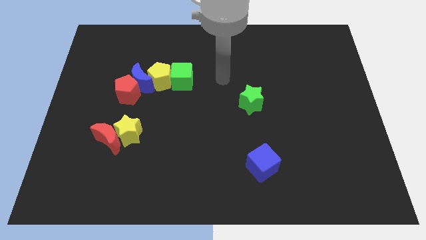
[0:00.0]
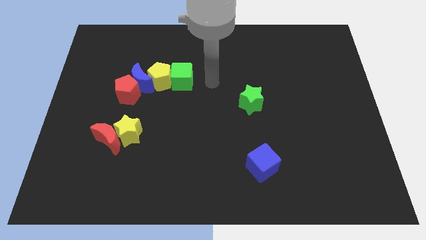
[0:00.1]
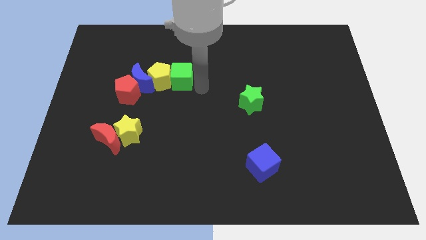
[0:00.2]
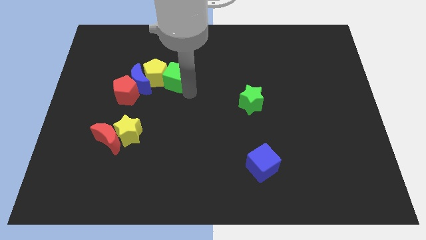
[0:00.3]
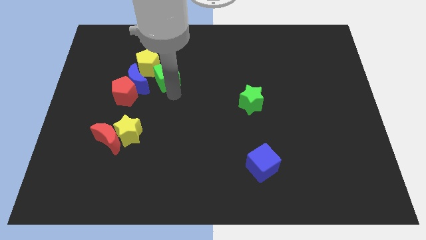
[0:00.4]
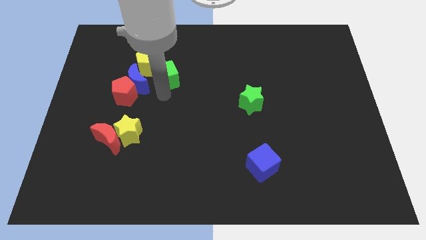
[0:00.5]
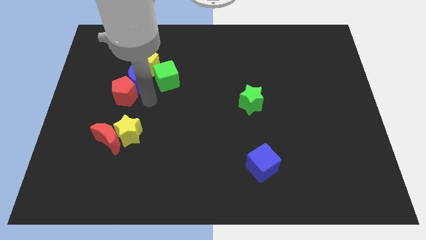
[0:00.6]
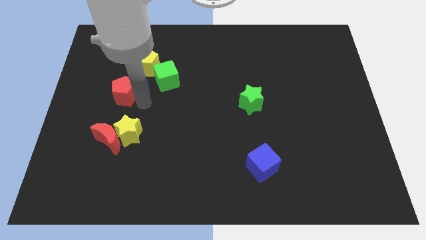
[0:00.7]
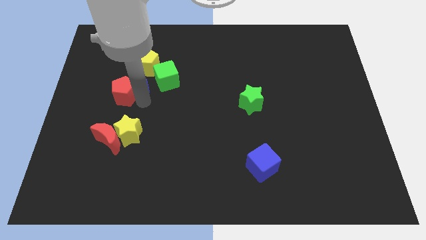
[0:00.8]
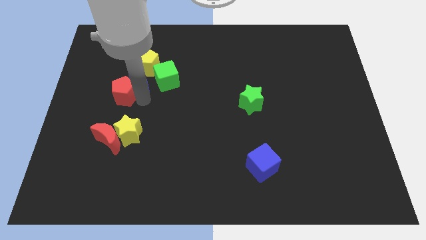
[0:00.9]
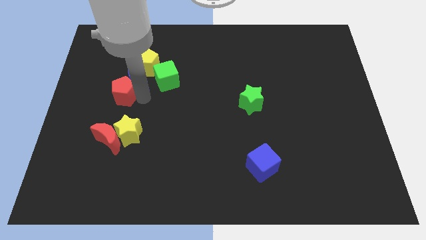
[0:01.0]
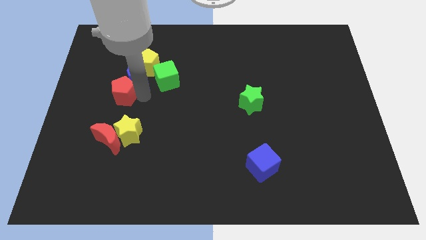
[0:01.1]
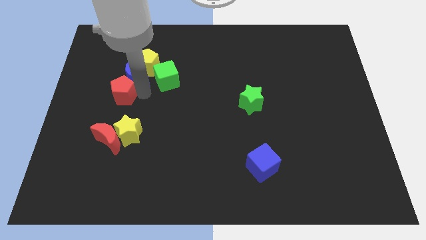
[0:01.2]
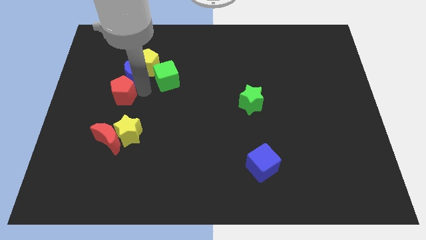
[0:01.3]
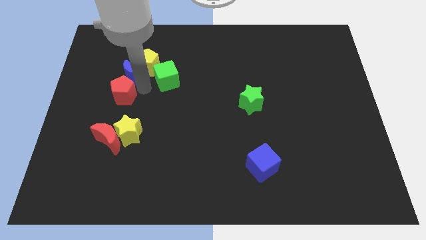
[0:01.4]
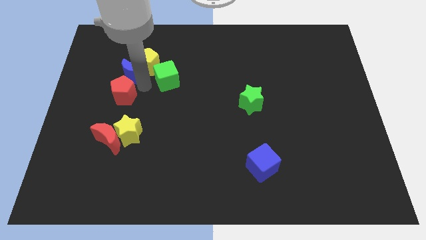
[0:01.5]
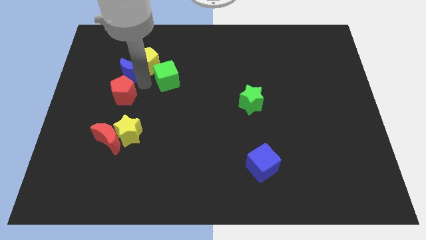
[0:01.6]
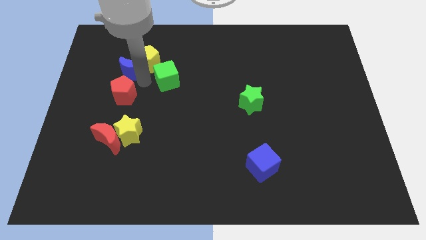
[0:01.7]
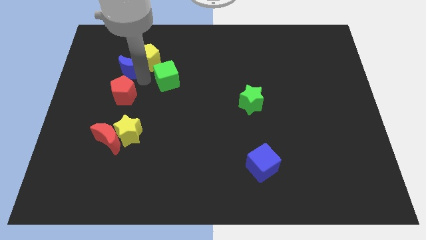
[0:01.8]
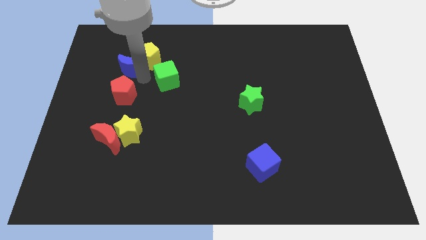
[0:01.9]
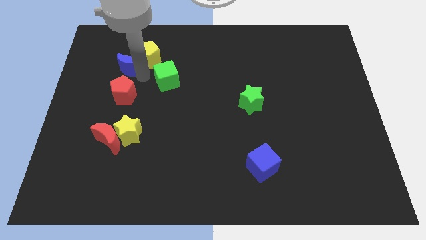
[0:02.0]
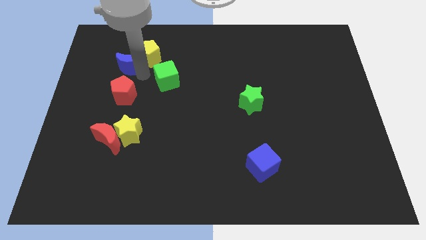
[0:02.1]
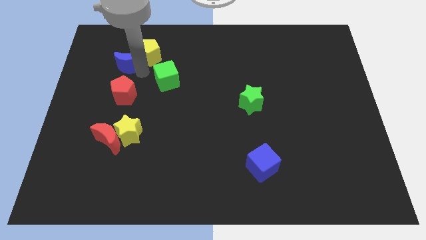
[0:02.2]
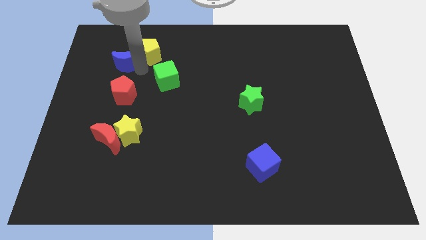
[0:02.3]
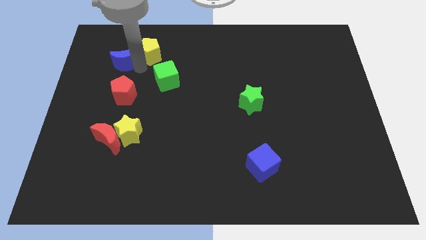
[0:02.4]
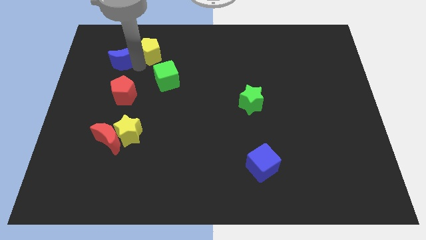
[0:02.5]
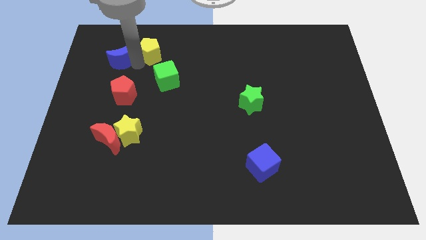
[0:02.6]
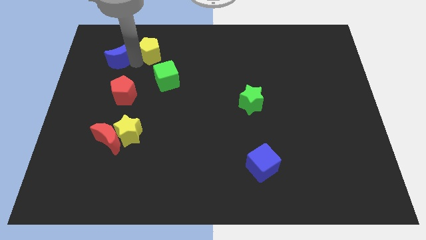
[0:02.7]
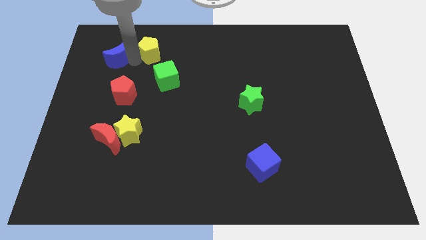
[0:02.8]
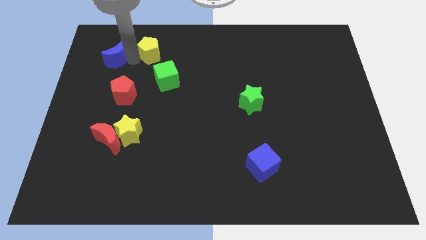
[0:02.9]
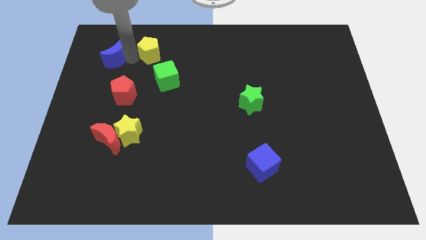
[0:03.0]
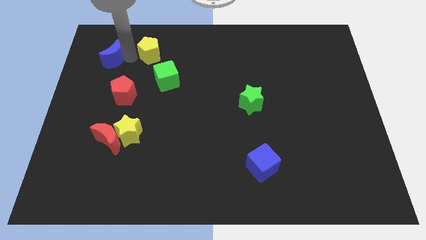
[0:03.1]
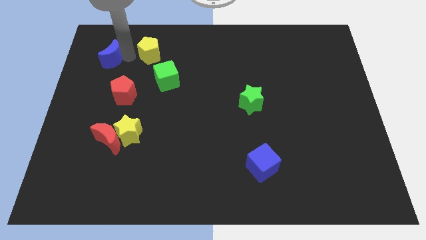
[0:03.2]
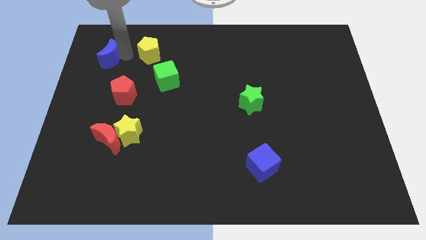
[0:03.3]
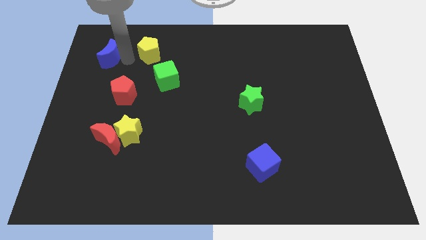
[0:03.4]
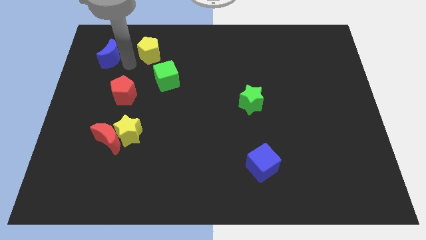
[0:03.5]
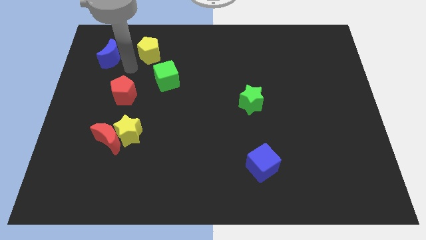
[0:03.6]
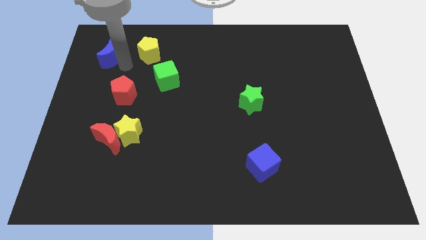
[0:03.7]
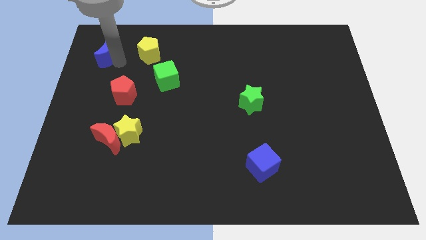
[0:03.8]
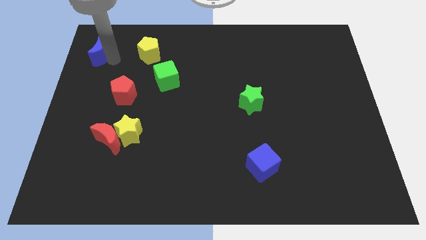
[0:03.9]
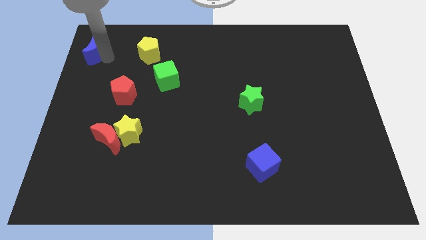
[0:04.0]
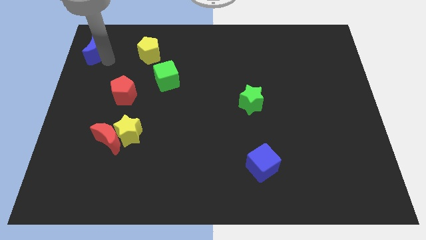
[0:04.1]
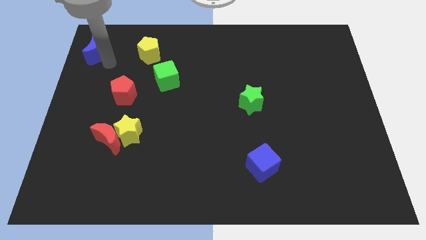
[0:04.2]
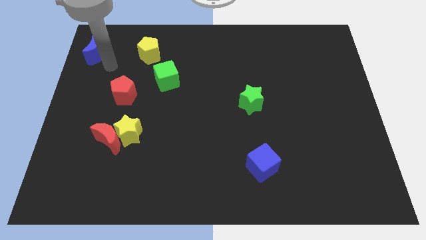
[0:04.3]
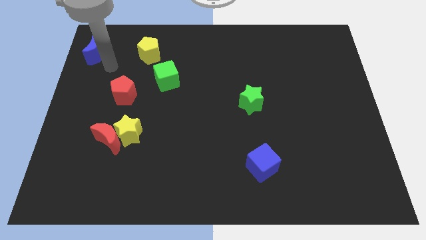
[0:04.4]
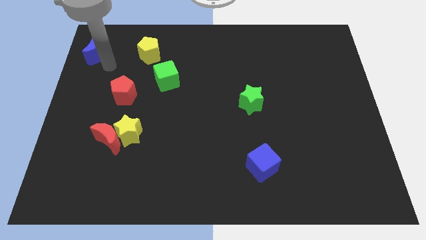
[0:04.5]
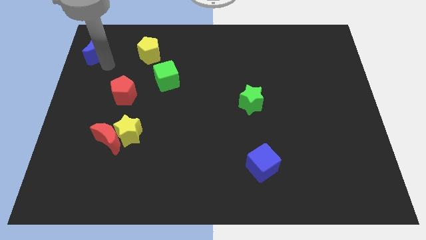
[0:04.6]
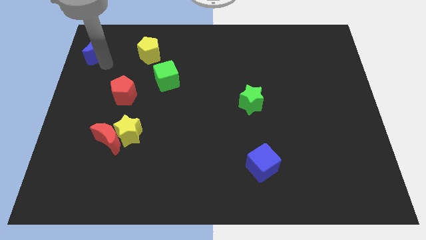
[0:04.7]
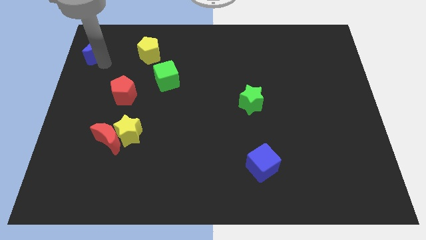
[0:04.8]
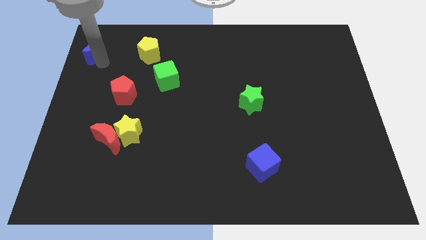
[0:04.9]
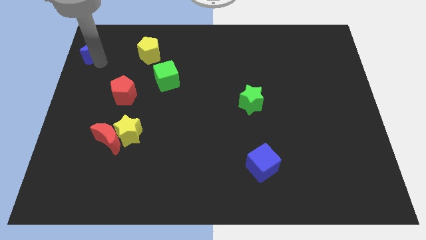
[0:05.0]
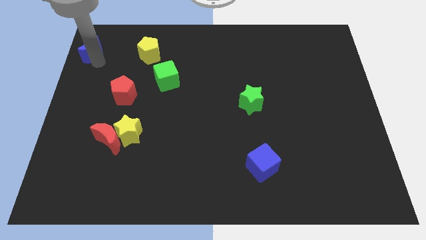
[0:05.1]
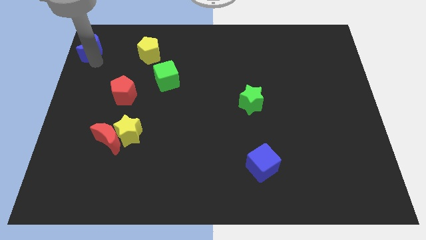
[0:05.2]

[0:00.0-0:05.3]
slide the blue moon to the top left corner

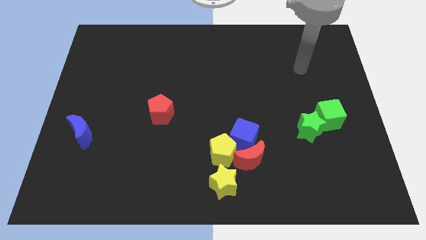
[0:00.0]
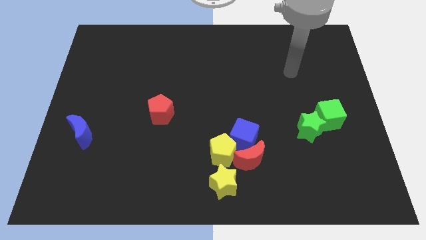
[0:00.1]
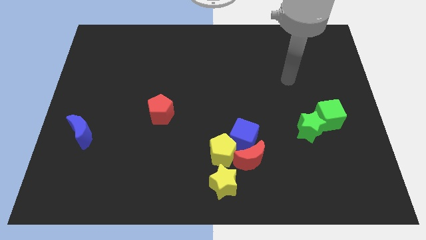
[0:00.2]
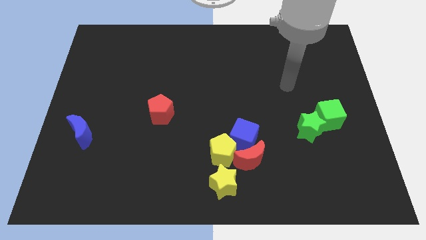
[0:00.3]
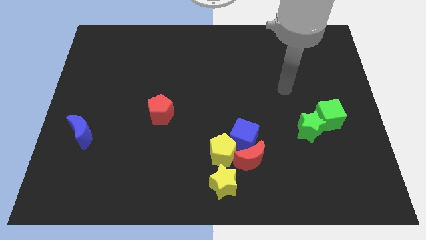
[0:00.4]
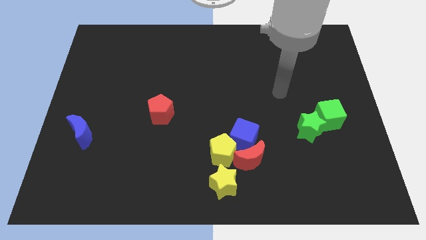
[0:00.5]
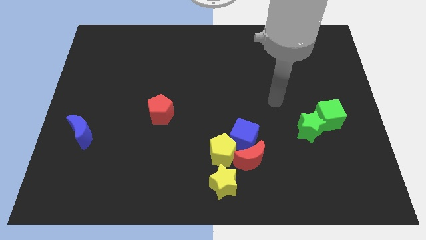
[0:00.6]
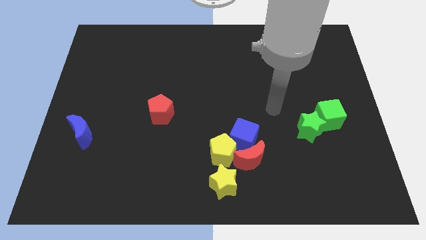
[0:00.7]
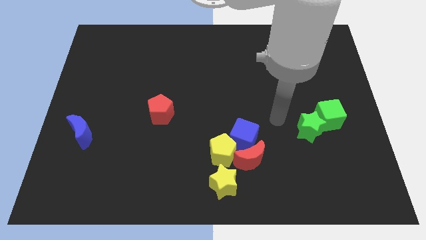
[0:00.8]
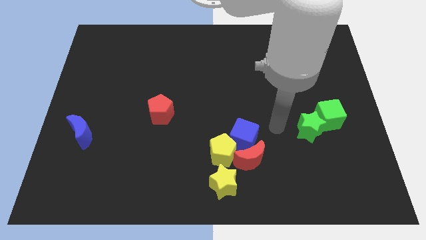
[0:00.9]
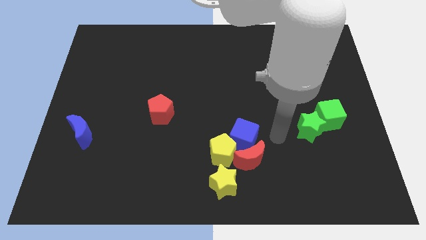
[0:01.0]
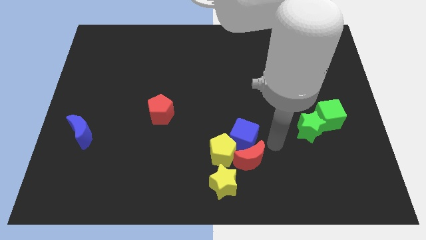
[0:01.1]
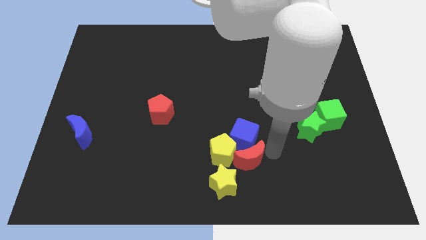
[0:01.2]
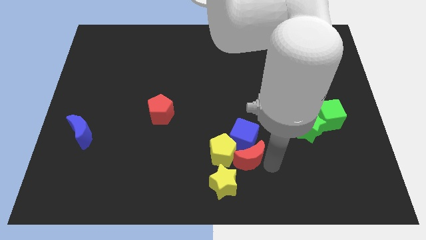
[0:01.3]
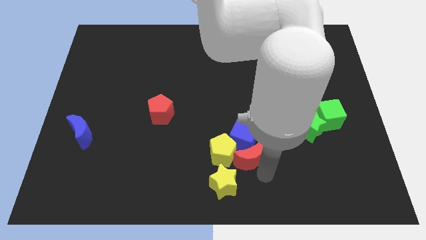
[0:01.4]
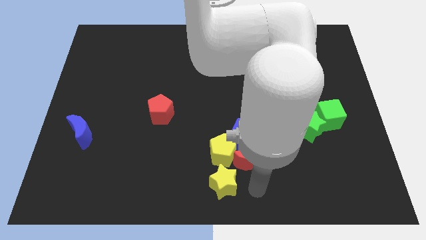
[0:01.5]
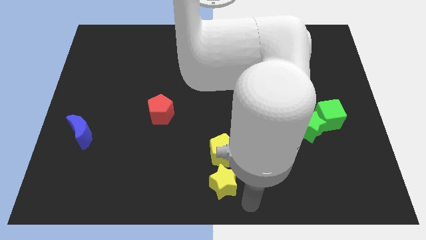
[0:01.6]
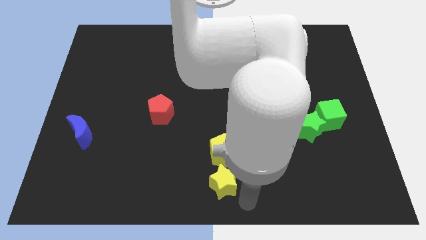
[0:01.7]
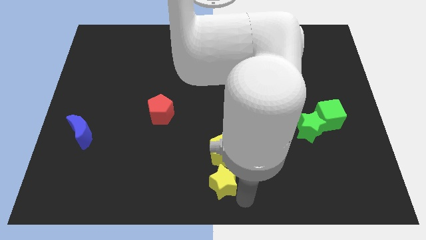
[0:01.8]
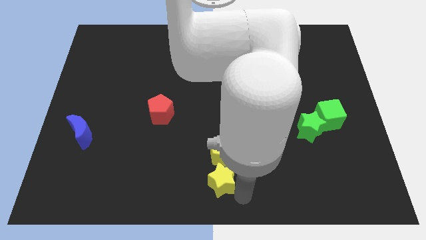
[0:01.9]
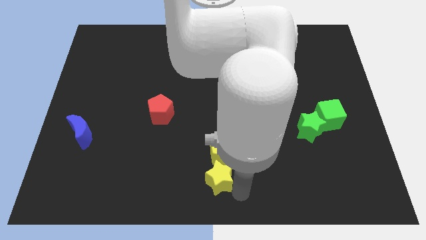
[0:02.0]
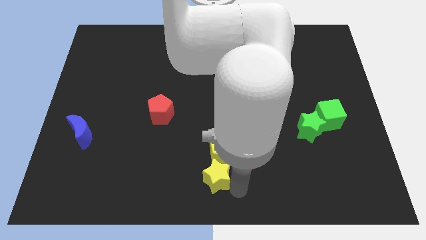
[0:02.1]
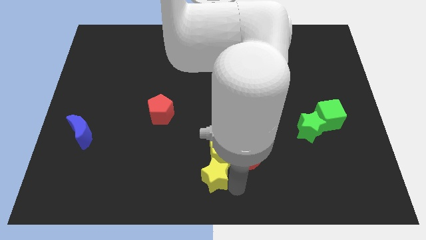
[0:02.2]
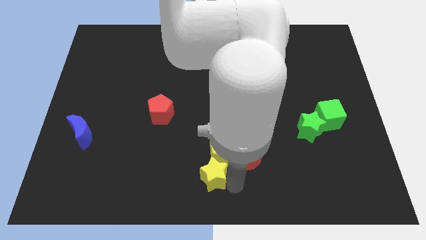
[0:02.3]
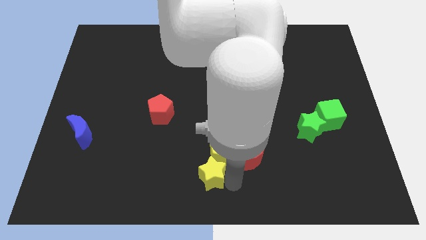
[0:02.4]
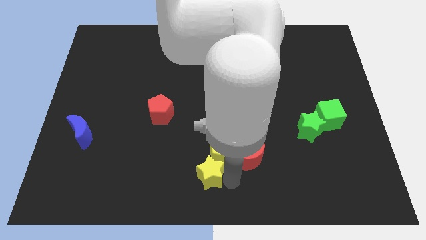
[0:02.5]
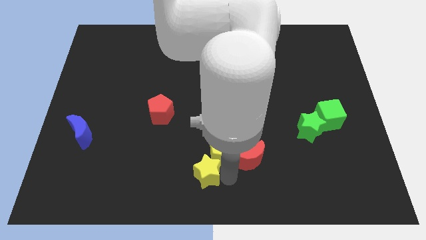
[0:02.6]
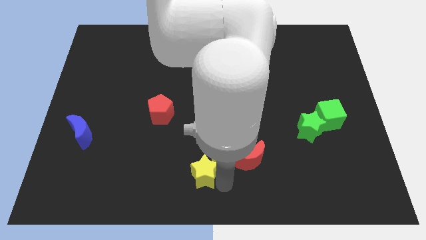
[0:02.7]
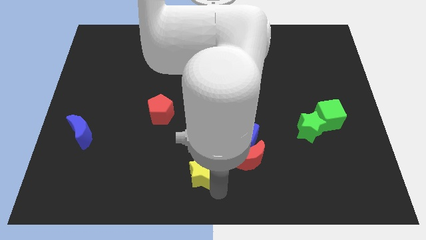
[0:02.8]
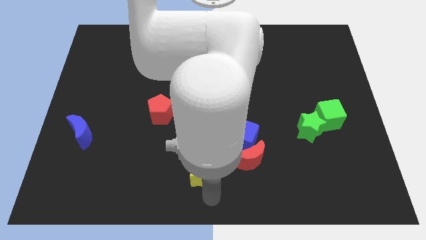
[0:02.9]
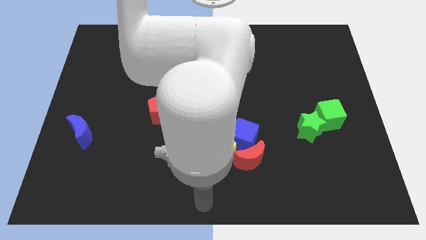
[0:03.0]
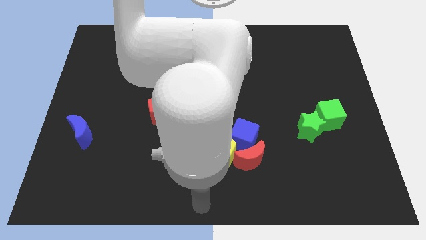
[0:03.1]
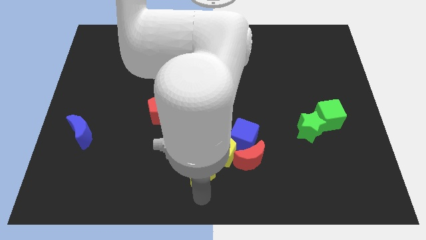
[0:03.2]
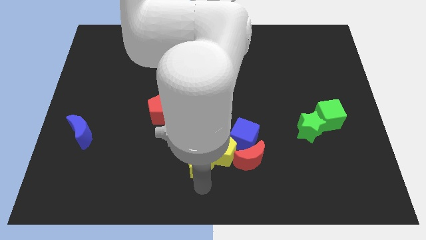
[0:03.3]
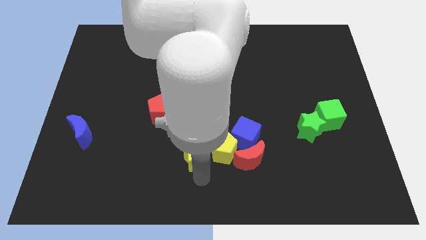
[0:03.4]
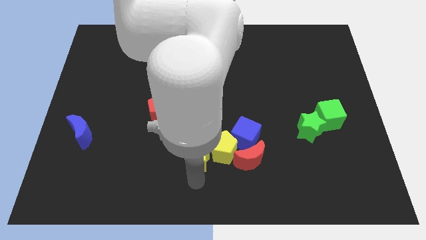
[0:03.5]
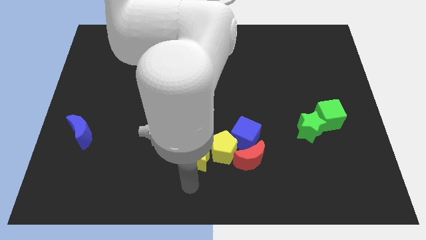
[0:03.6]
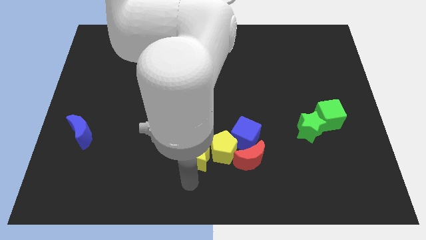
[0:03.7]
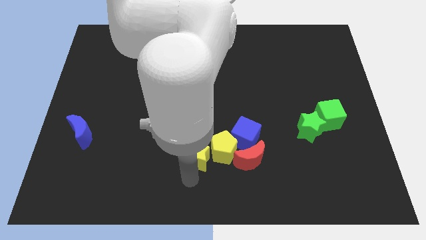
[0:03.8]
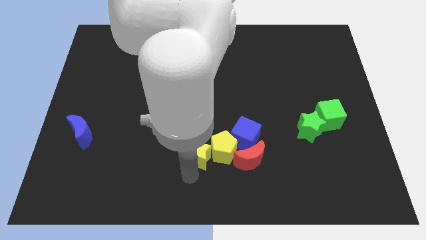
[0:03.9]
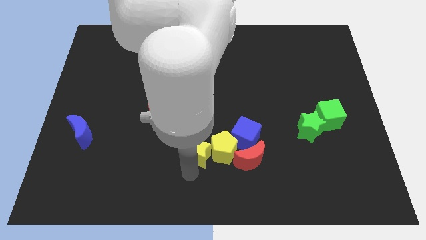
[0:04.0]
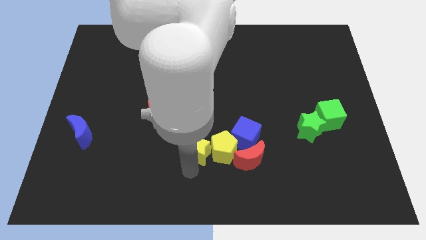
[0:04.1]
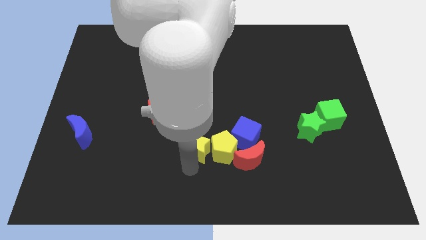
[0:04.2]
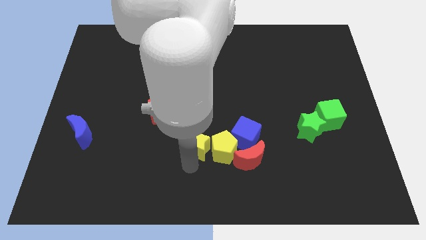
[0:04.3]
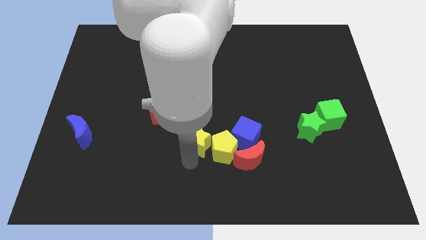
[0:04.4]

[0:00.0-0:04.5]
move the yellow star to the middle of the board
